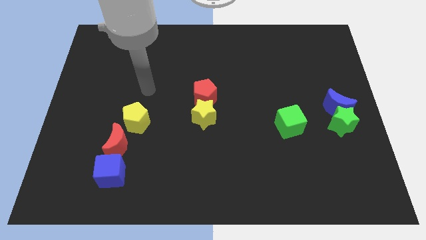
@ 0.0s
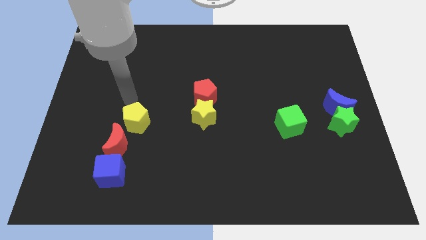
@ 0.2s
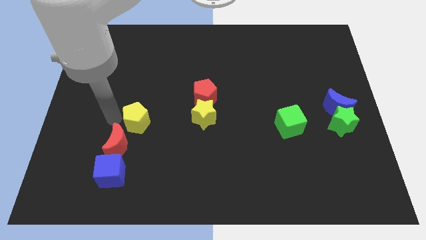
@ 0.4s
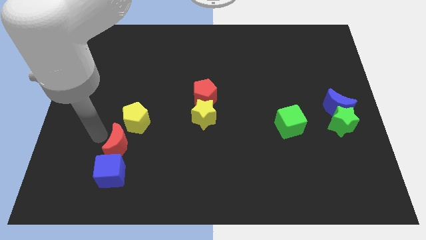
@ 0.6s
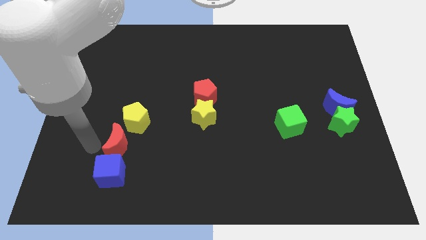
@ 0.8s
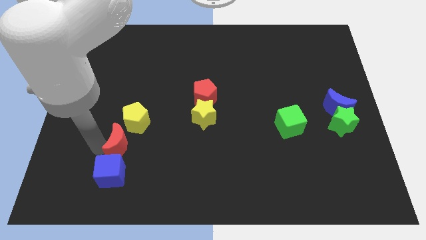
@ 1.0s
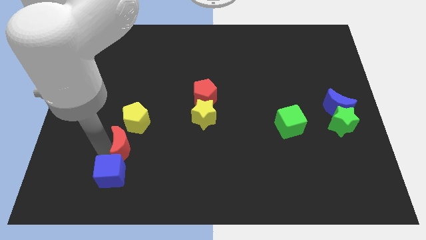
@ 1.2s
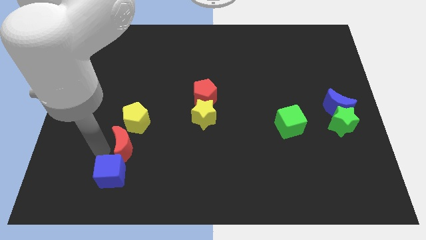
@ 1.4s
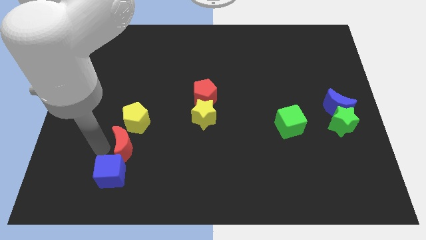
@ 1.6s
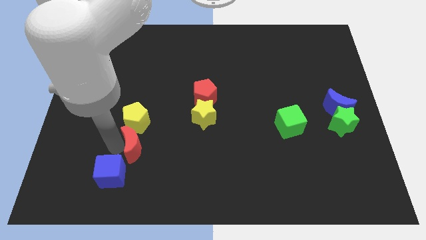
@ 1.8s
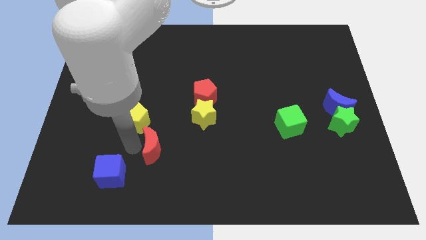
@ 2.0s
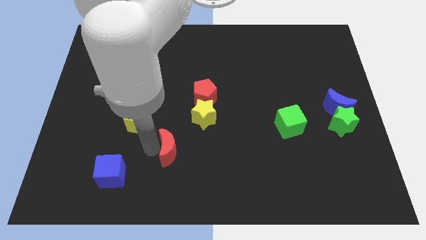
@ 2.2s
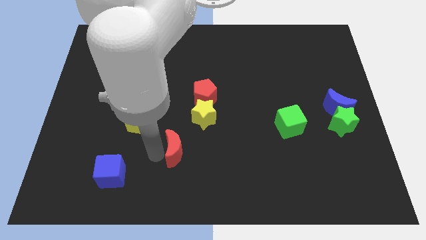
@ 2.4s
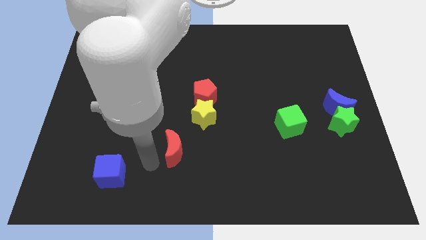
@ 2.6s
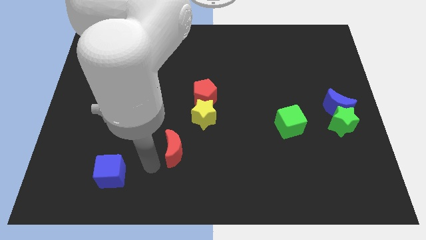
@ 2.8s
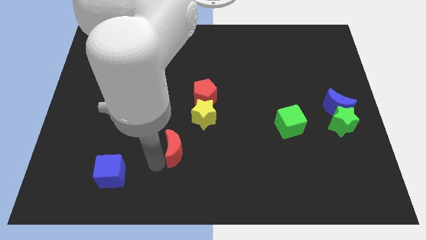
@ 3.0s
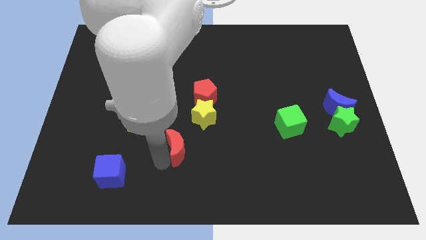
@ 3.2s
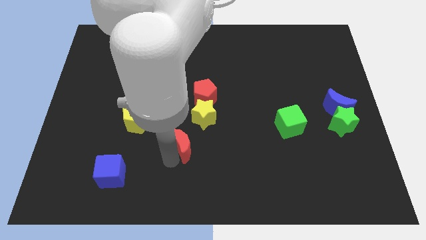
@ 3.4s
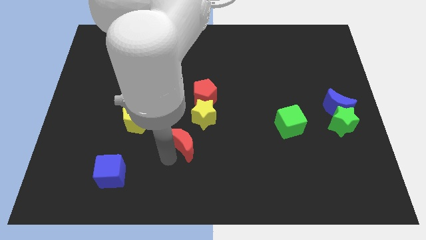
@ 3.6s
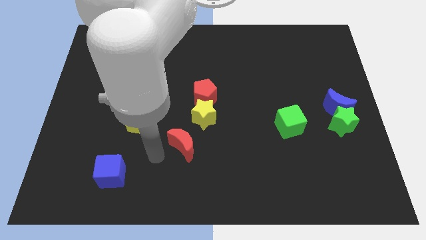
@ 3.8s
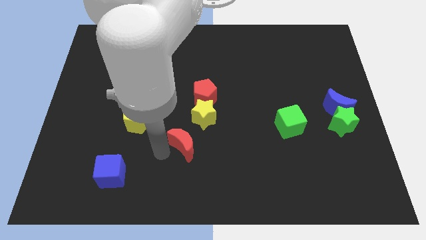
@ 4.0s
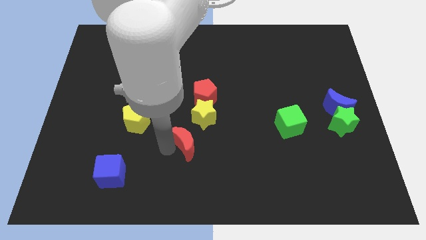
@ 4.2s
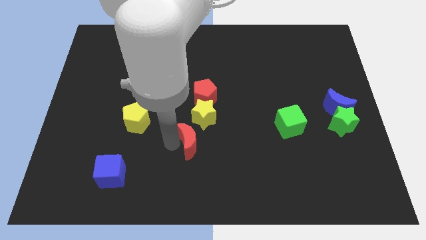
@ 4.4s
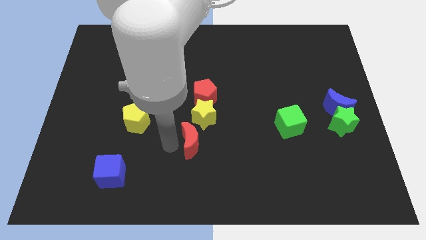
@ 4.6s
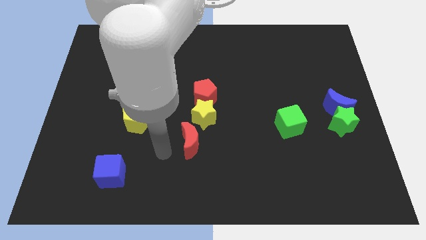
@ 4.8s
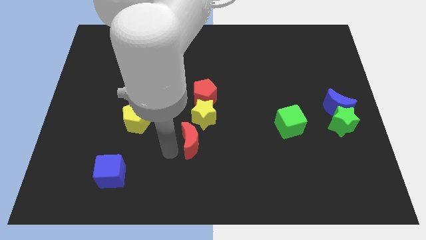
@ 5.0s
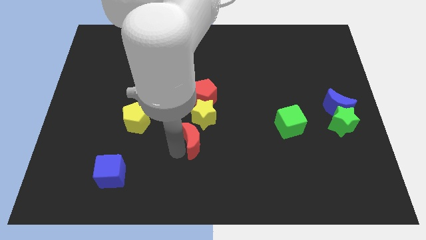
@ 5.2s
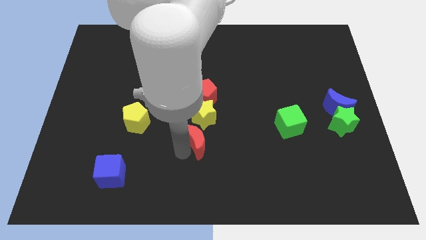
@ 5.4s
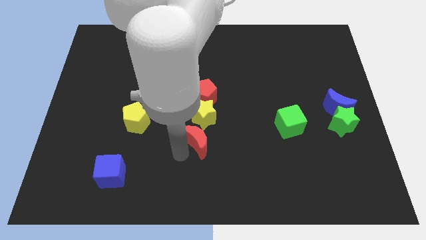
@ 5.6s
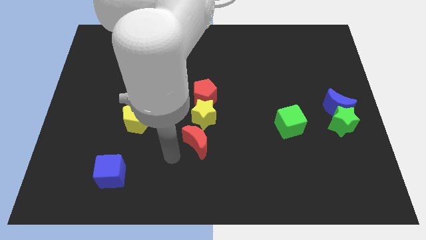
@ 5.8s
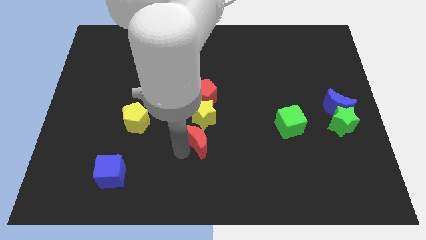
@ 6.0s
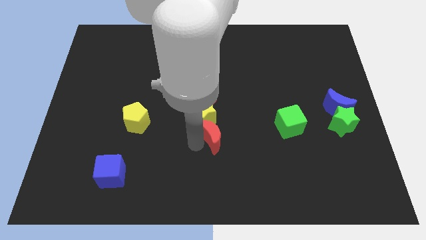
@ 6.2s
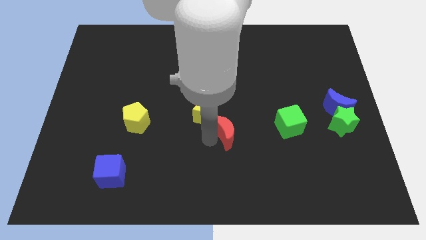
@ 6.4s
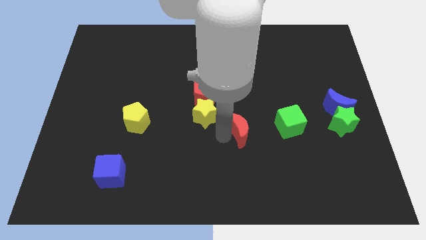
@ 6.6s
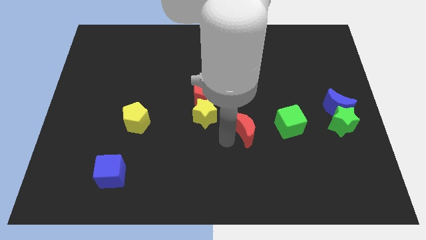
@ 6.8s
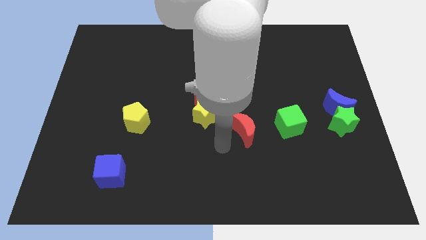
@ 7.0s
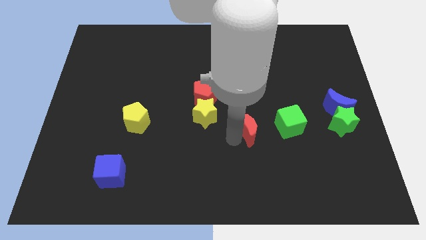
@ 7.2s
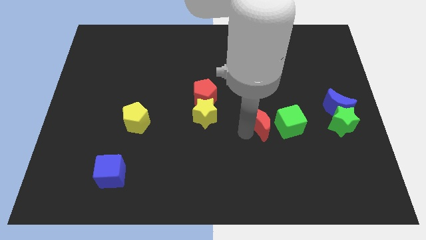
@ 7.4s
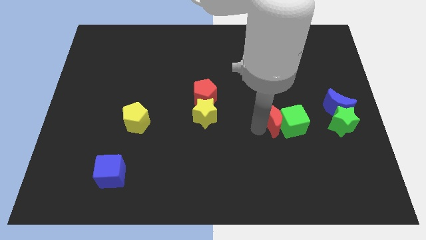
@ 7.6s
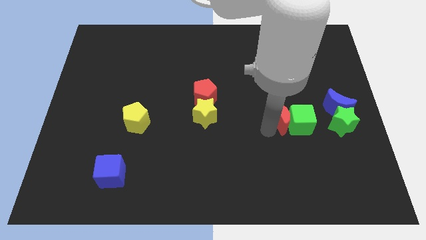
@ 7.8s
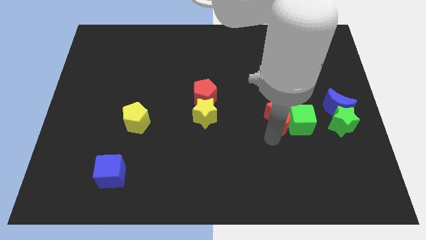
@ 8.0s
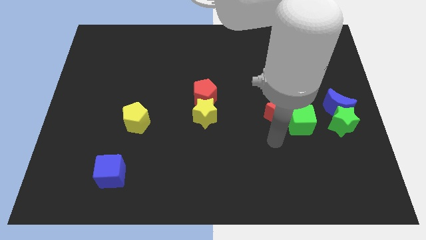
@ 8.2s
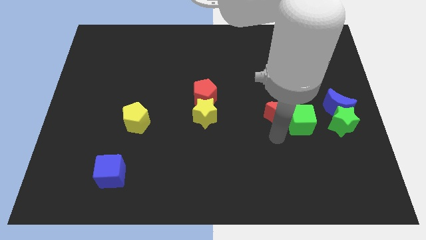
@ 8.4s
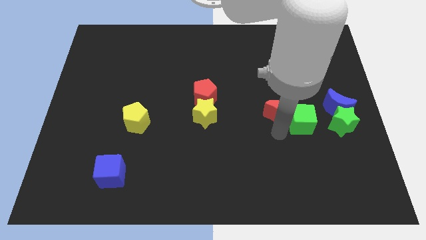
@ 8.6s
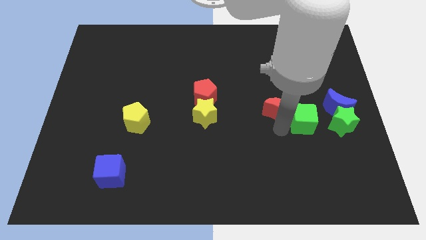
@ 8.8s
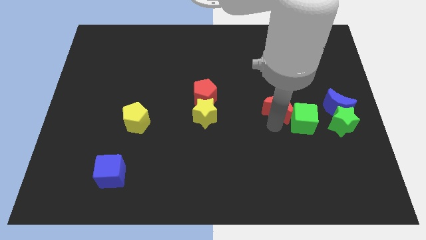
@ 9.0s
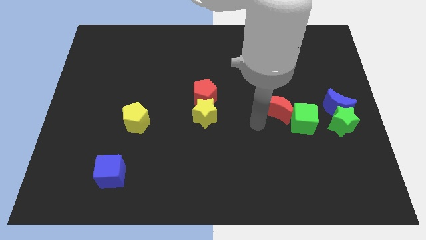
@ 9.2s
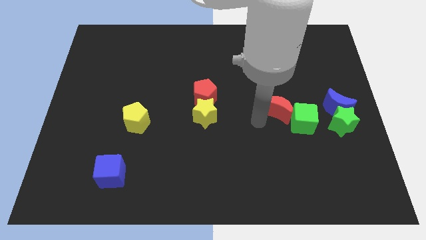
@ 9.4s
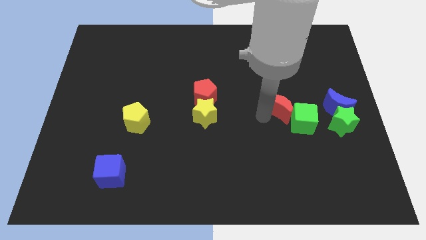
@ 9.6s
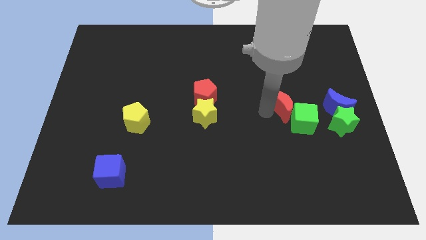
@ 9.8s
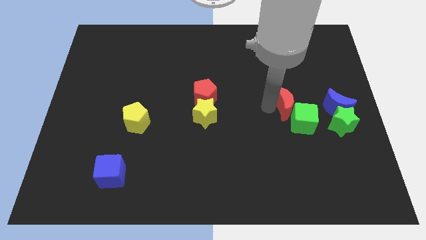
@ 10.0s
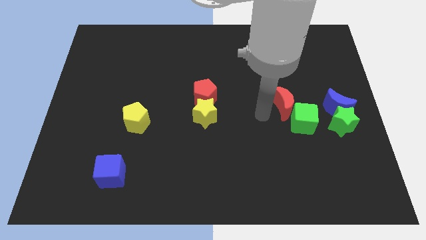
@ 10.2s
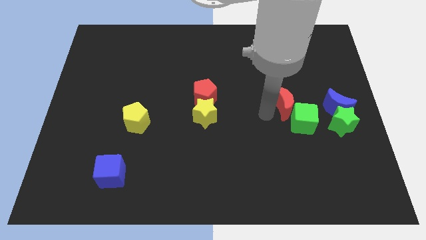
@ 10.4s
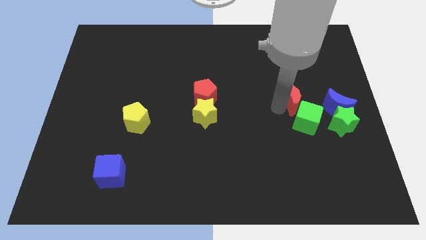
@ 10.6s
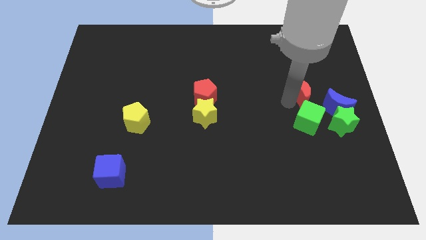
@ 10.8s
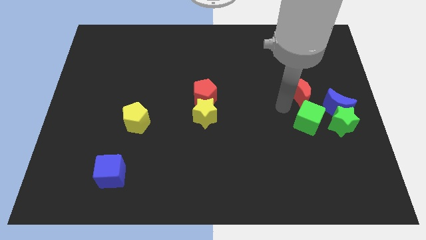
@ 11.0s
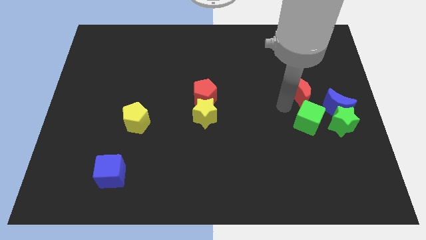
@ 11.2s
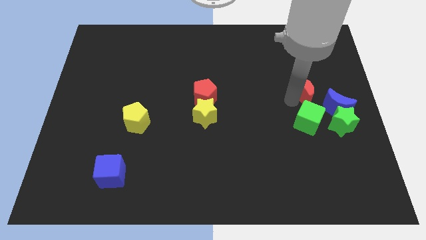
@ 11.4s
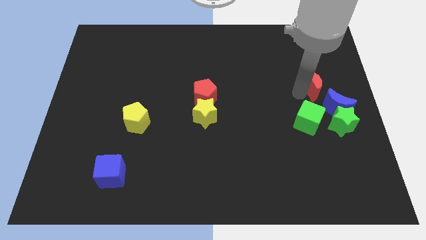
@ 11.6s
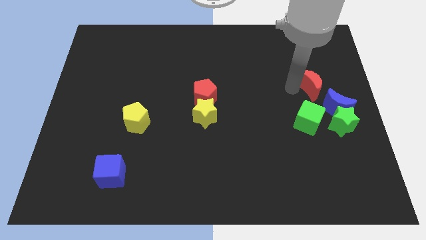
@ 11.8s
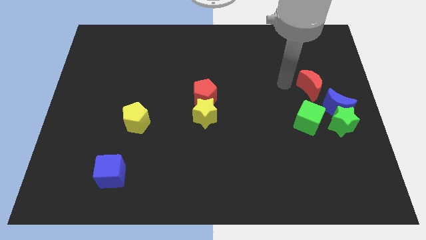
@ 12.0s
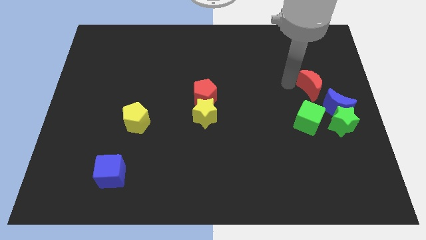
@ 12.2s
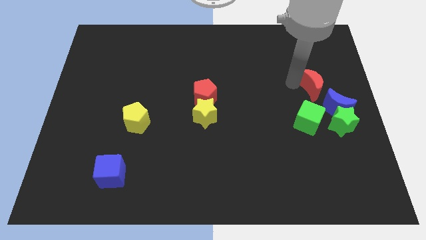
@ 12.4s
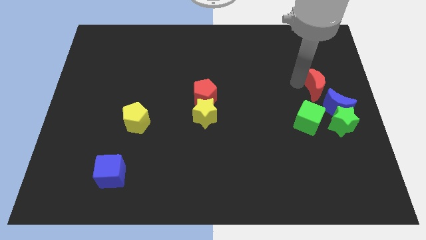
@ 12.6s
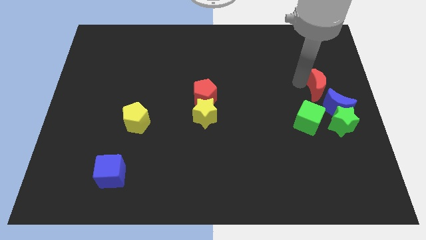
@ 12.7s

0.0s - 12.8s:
move the red moon to the right side

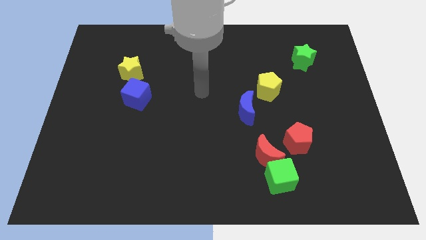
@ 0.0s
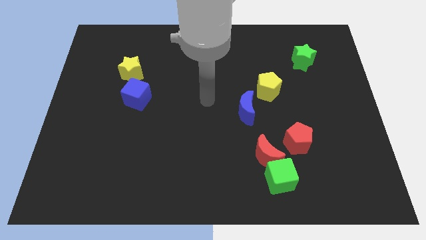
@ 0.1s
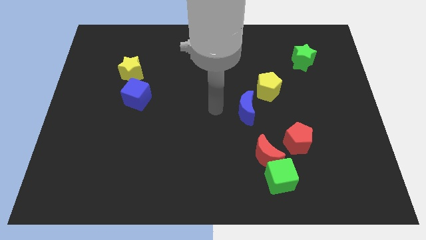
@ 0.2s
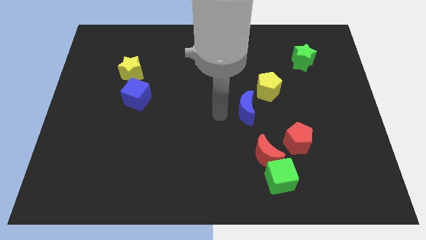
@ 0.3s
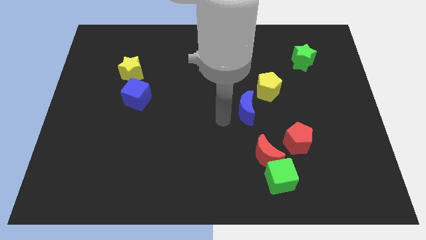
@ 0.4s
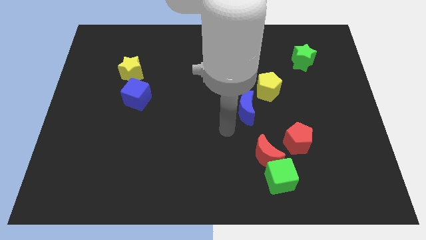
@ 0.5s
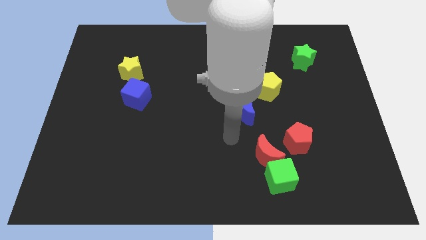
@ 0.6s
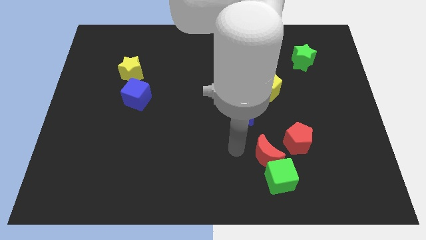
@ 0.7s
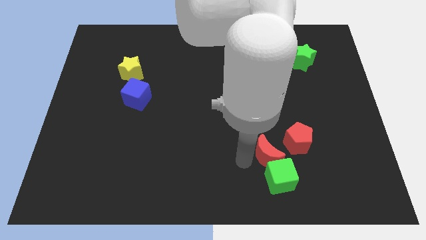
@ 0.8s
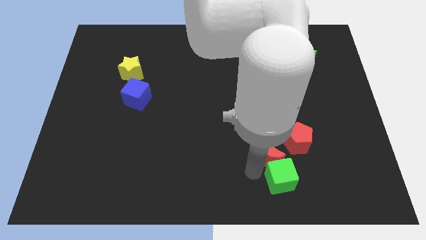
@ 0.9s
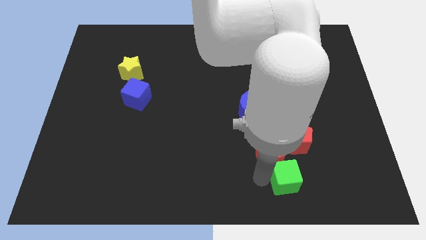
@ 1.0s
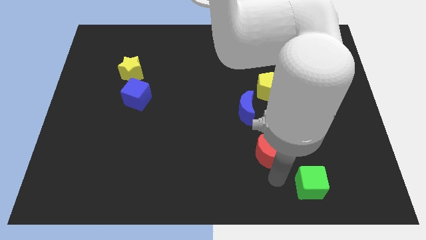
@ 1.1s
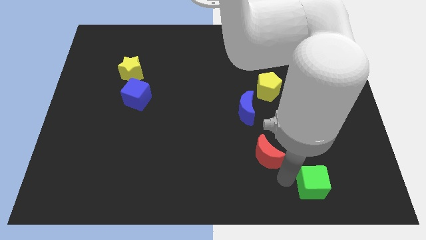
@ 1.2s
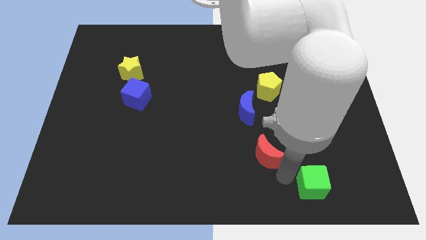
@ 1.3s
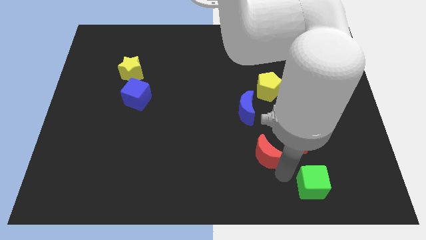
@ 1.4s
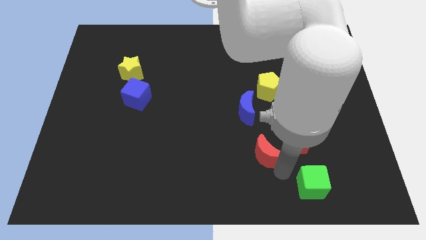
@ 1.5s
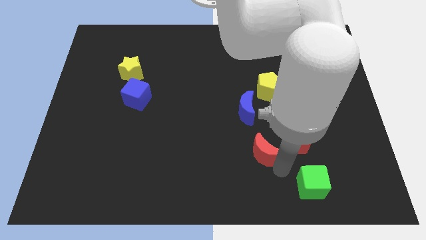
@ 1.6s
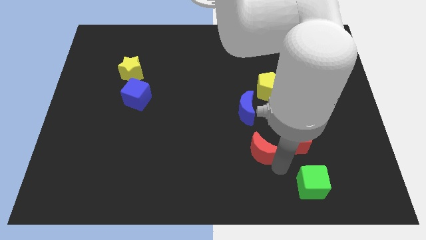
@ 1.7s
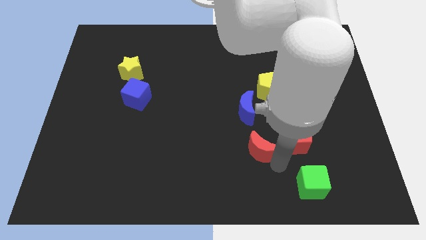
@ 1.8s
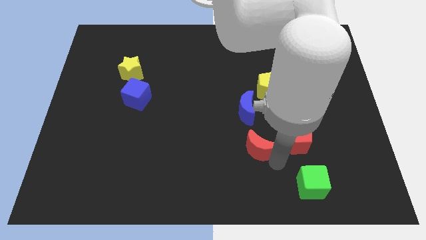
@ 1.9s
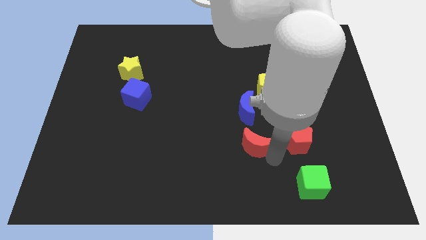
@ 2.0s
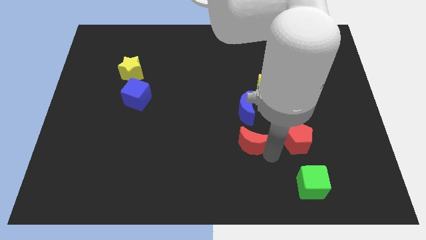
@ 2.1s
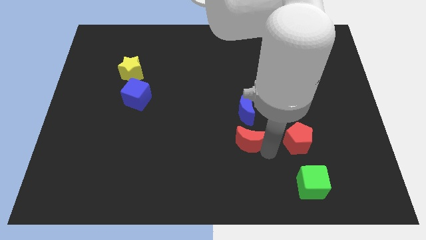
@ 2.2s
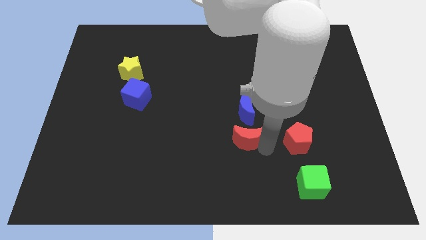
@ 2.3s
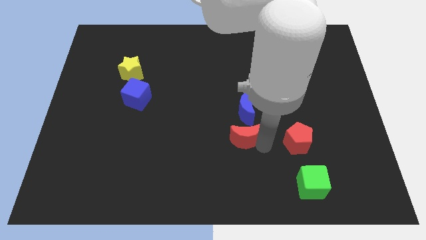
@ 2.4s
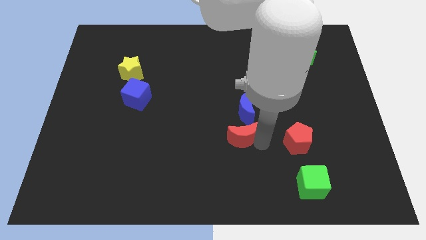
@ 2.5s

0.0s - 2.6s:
move the red moon to the center of the board
